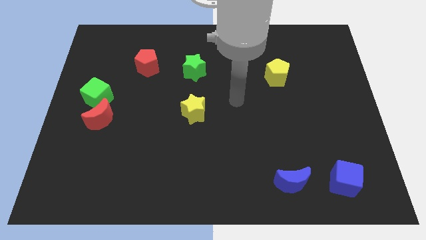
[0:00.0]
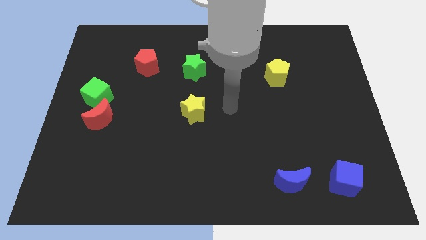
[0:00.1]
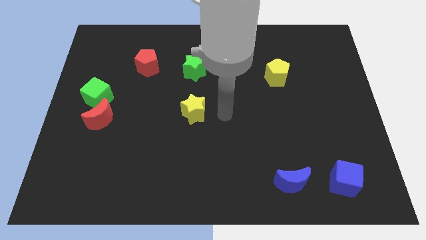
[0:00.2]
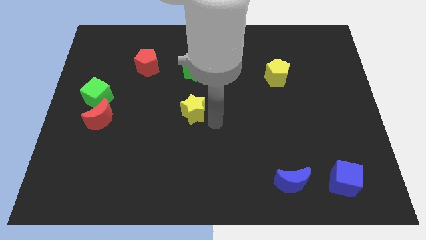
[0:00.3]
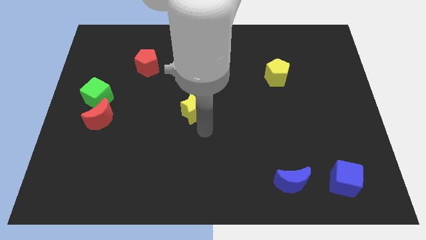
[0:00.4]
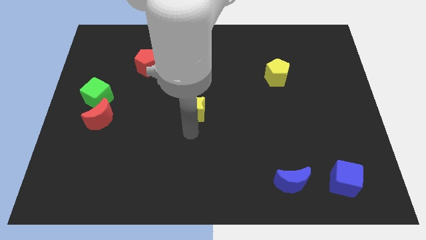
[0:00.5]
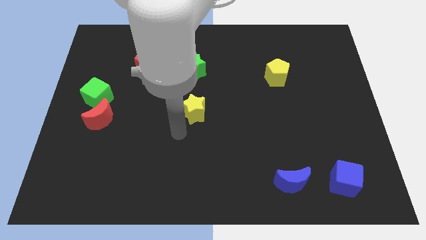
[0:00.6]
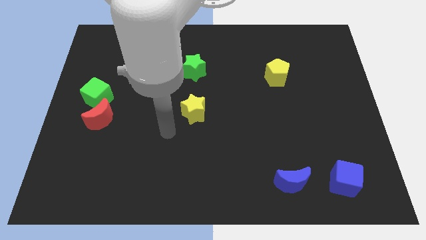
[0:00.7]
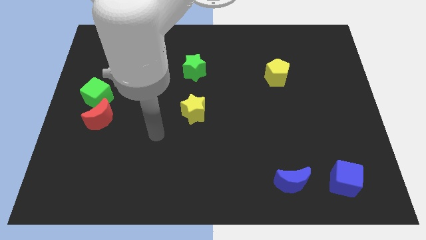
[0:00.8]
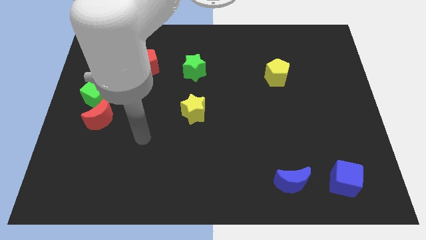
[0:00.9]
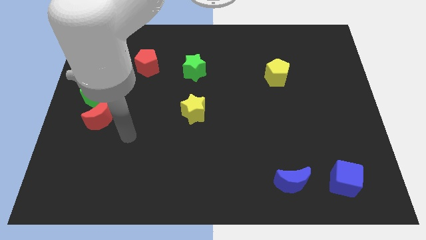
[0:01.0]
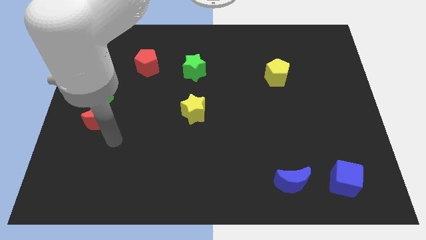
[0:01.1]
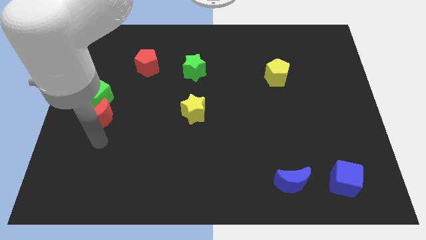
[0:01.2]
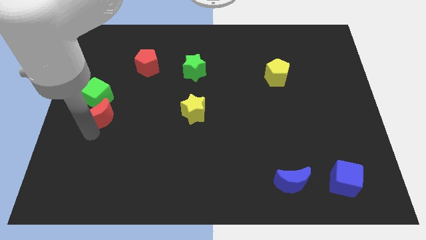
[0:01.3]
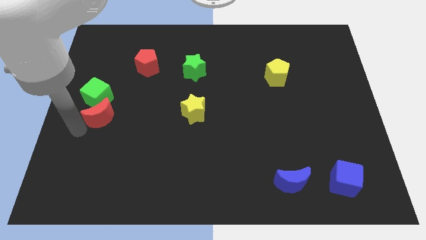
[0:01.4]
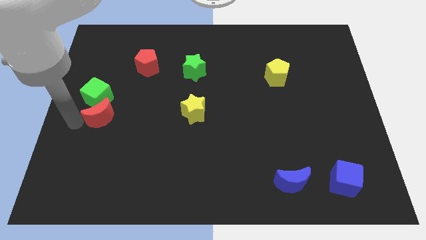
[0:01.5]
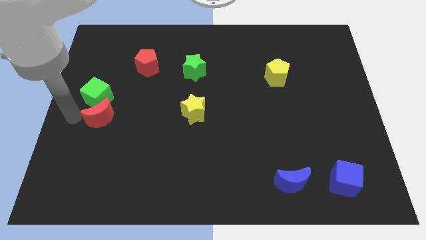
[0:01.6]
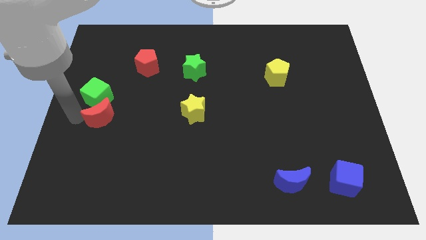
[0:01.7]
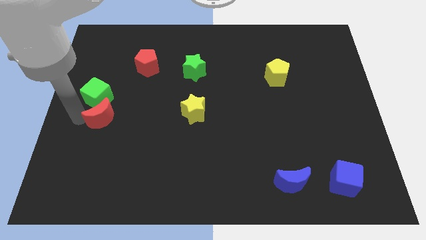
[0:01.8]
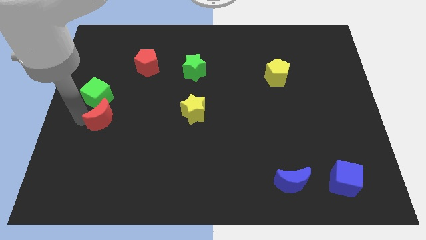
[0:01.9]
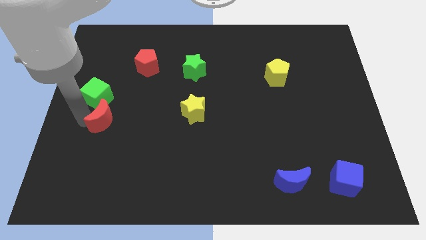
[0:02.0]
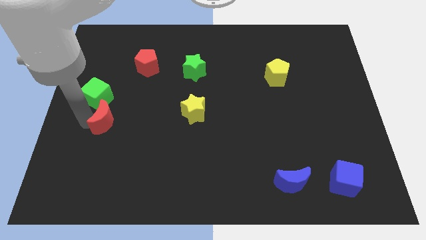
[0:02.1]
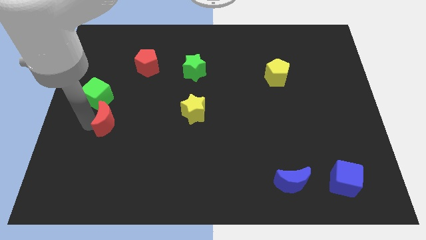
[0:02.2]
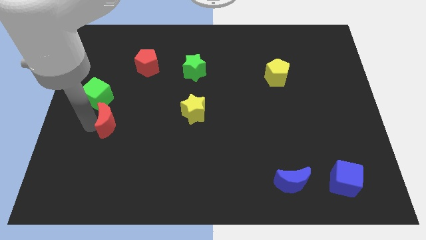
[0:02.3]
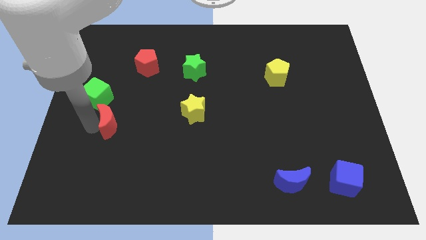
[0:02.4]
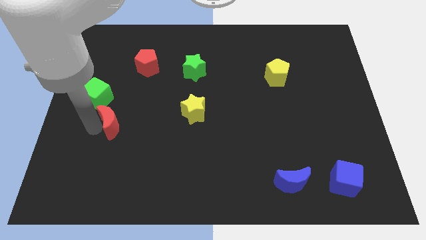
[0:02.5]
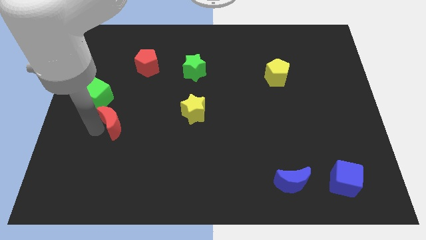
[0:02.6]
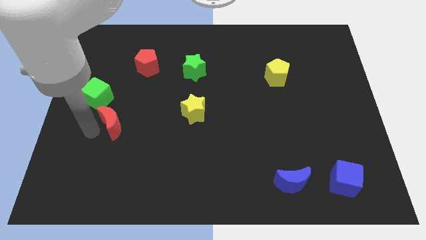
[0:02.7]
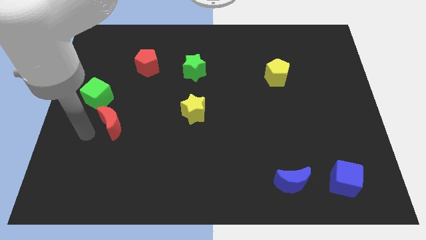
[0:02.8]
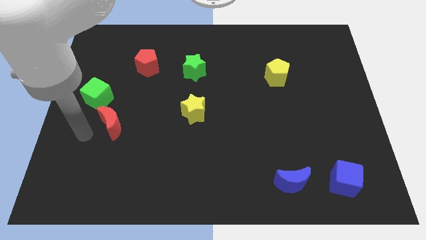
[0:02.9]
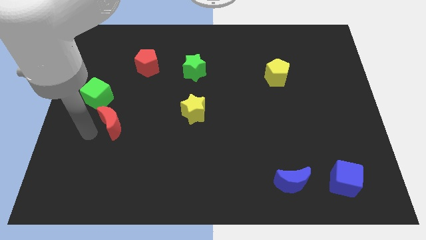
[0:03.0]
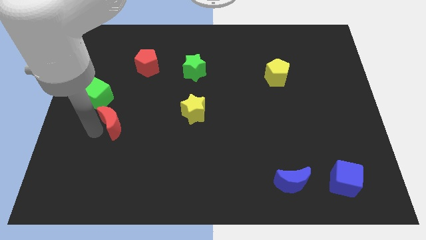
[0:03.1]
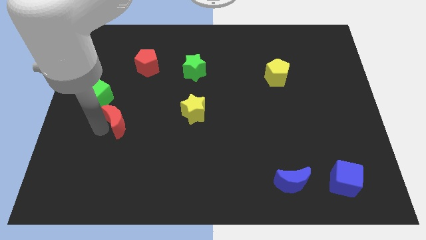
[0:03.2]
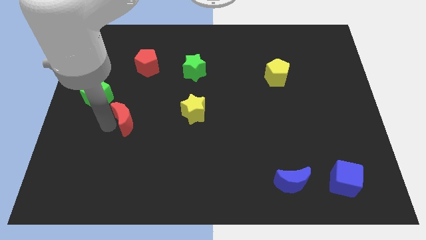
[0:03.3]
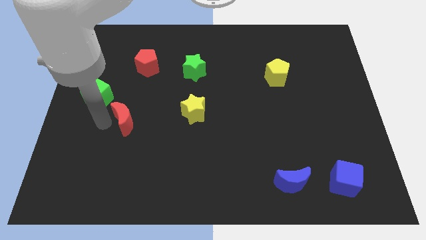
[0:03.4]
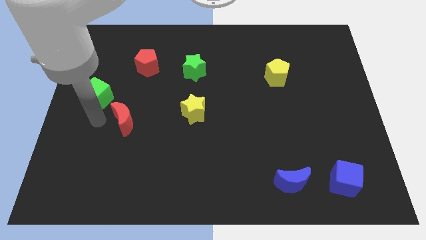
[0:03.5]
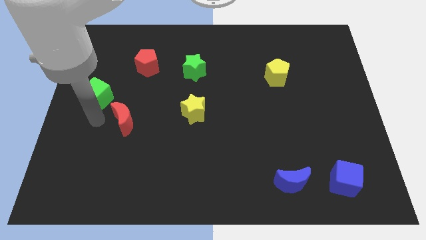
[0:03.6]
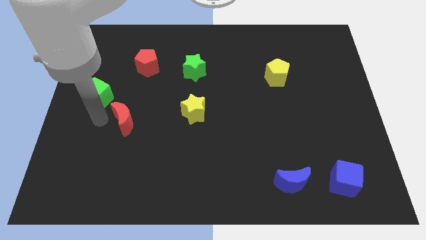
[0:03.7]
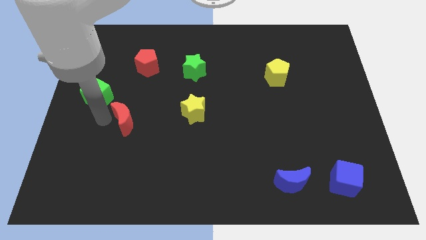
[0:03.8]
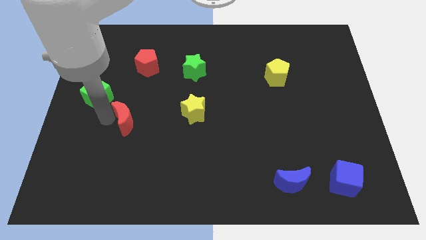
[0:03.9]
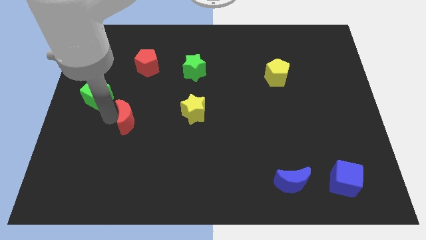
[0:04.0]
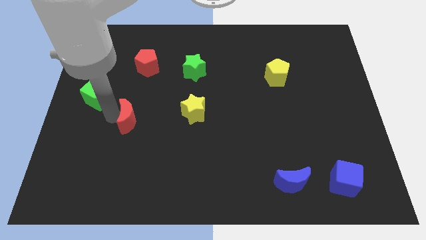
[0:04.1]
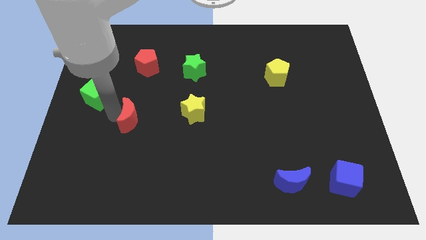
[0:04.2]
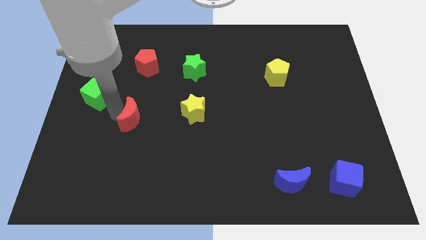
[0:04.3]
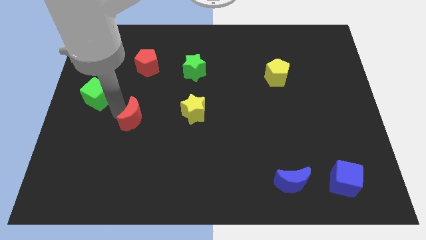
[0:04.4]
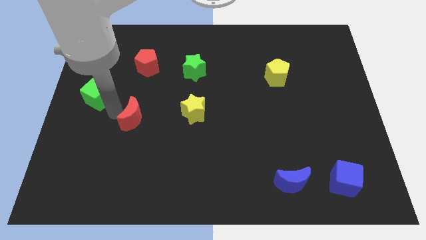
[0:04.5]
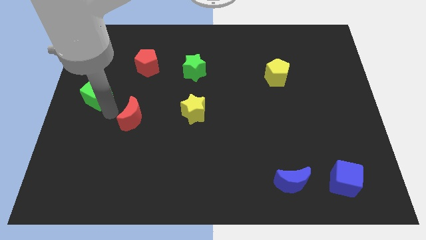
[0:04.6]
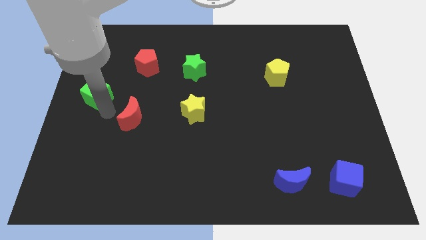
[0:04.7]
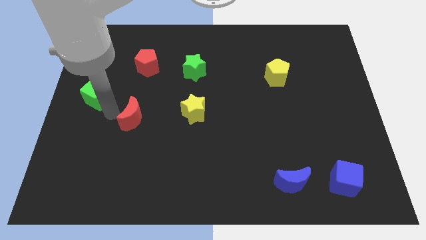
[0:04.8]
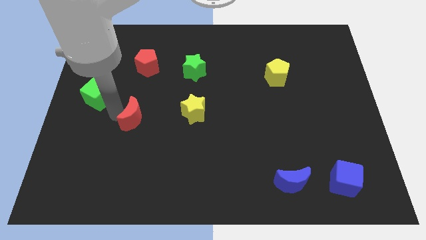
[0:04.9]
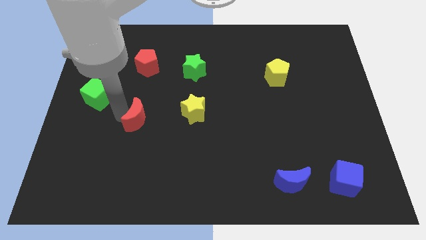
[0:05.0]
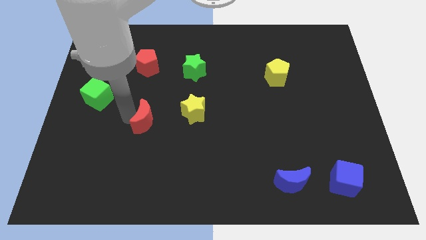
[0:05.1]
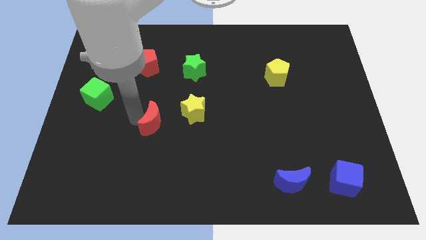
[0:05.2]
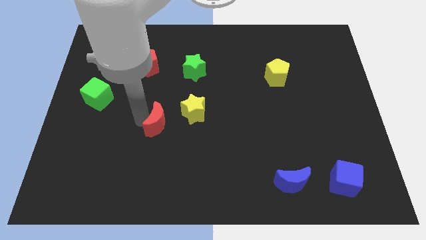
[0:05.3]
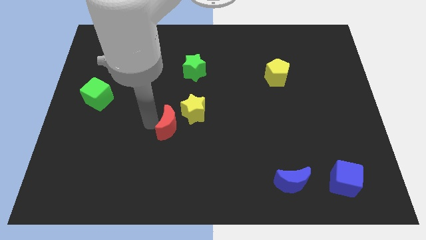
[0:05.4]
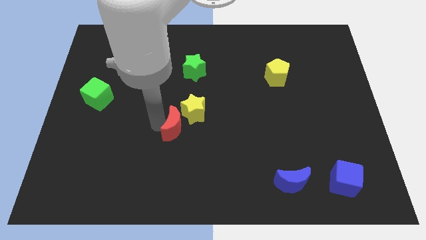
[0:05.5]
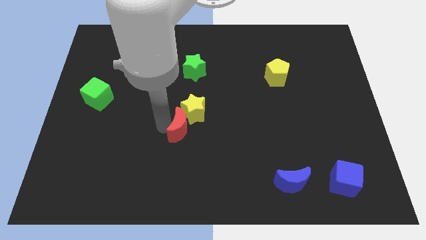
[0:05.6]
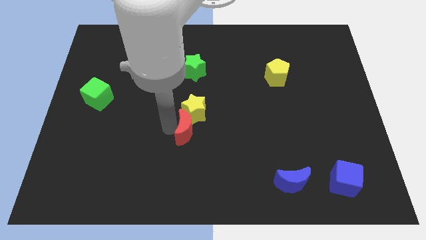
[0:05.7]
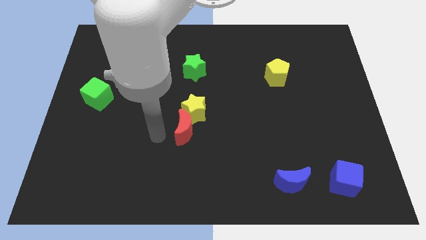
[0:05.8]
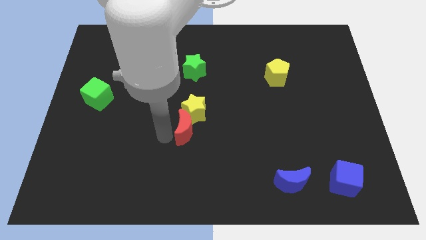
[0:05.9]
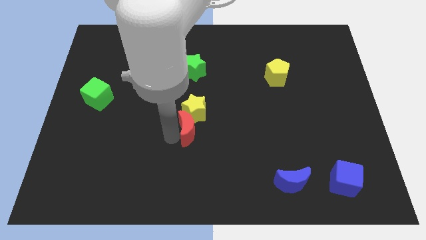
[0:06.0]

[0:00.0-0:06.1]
move the red moon to the right

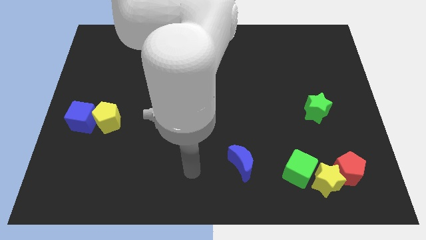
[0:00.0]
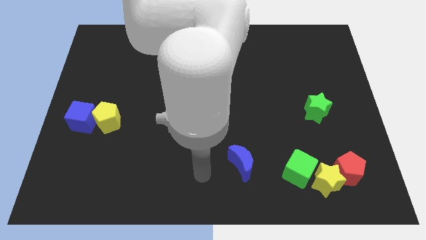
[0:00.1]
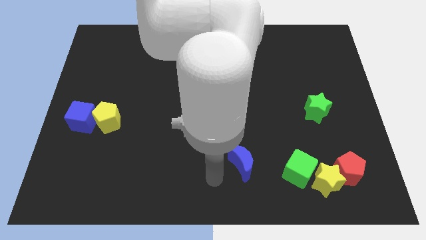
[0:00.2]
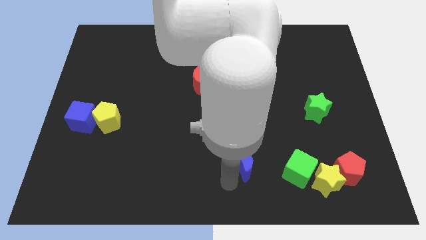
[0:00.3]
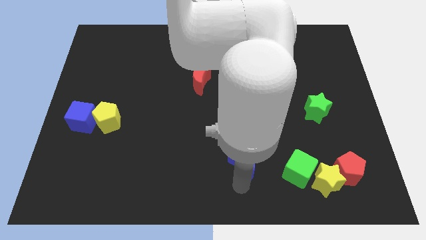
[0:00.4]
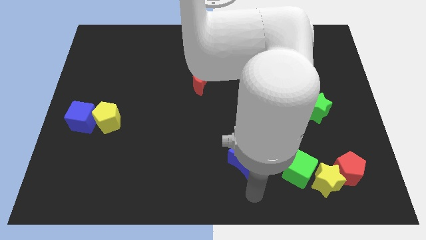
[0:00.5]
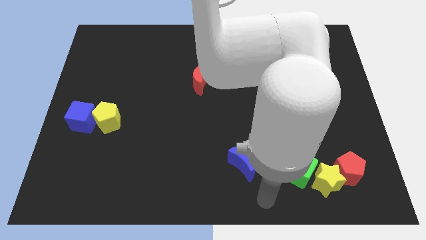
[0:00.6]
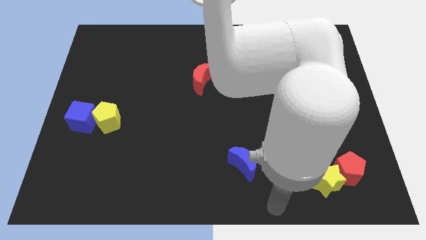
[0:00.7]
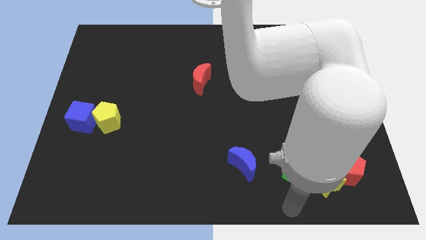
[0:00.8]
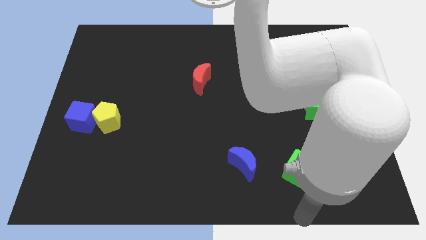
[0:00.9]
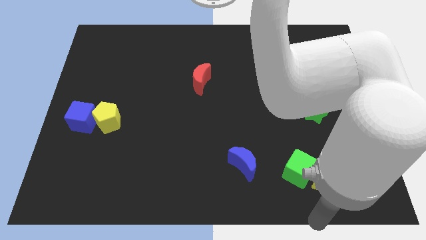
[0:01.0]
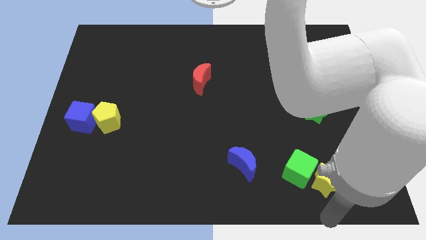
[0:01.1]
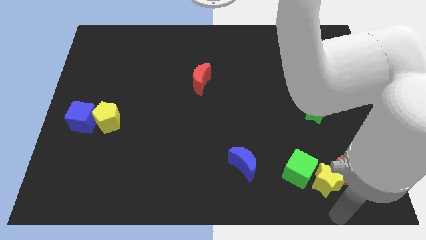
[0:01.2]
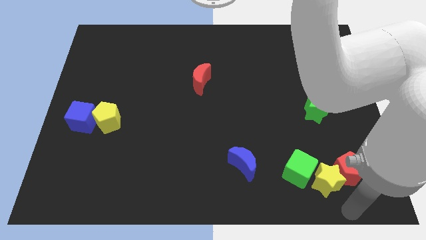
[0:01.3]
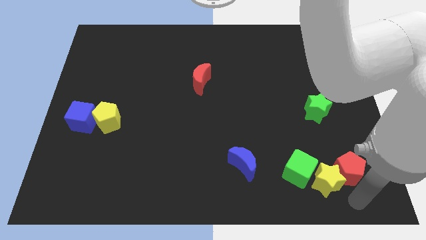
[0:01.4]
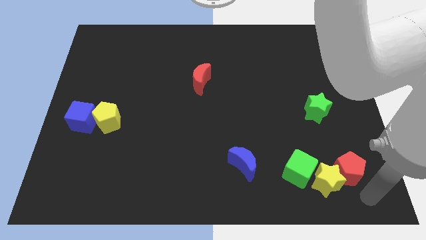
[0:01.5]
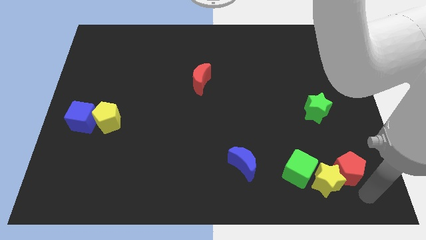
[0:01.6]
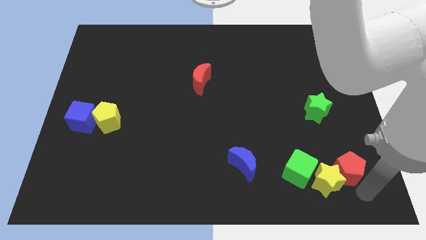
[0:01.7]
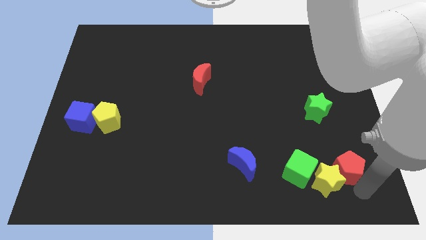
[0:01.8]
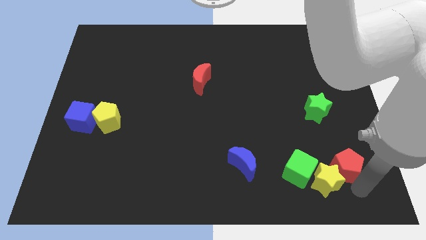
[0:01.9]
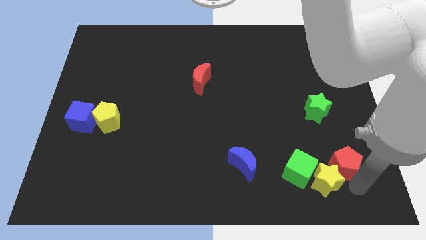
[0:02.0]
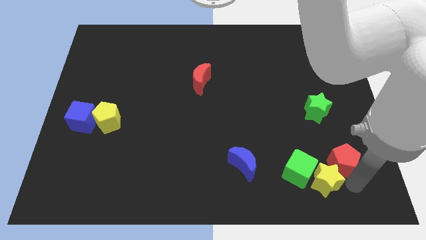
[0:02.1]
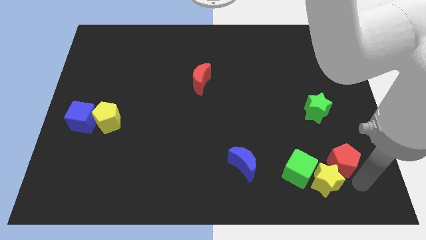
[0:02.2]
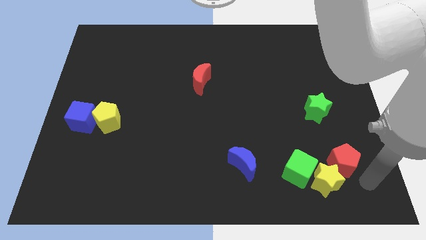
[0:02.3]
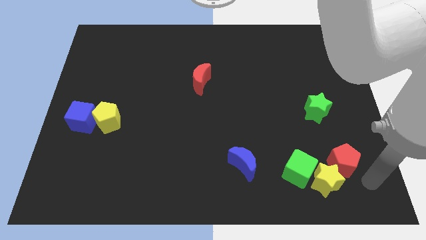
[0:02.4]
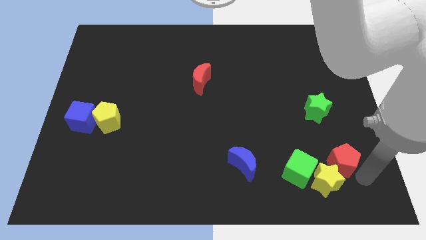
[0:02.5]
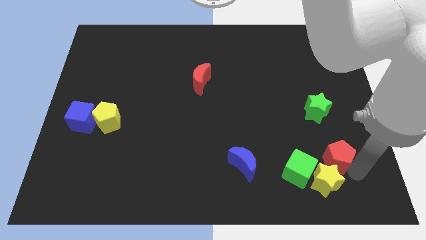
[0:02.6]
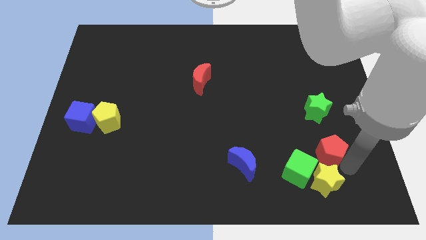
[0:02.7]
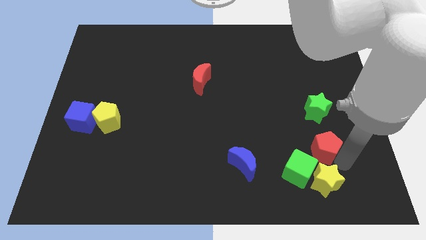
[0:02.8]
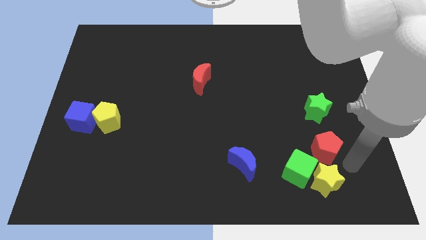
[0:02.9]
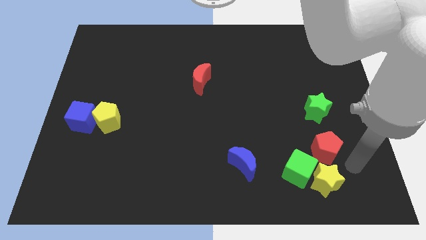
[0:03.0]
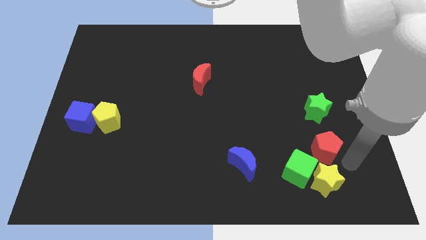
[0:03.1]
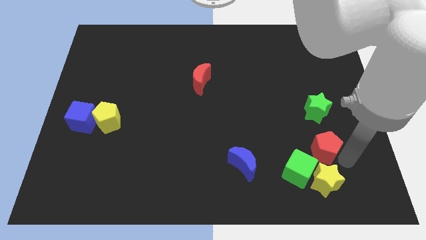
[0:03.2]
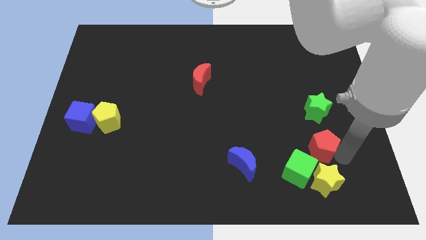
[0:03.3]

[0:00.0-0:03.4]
move the red pentagon a little diagonally up and left
